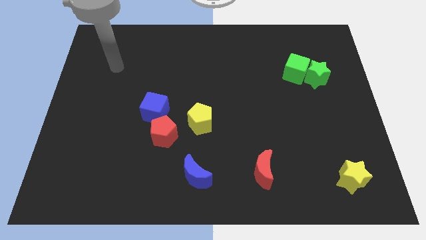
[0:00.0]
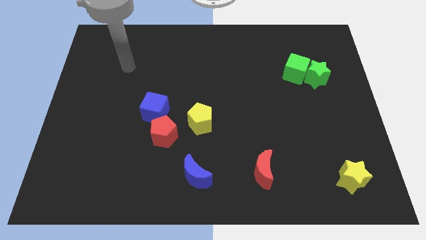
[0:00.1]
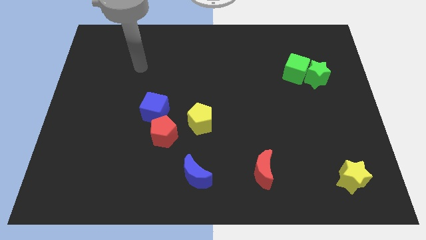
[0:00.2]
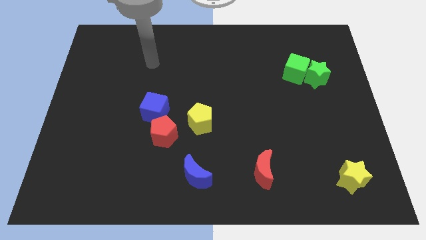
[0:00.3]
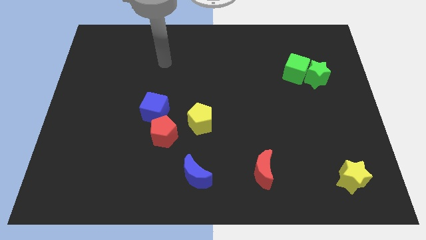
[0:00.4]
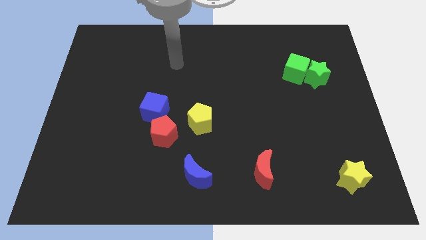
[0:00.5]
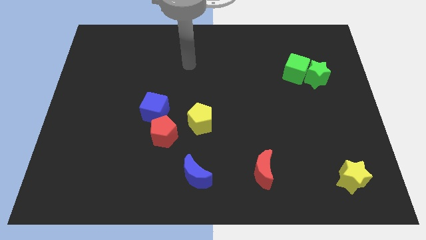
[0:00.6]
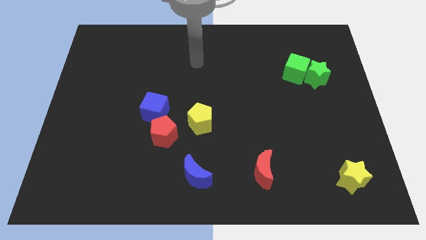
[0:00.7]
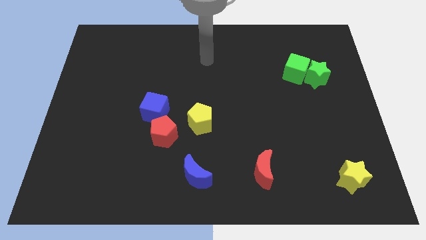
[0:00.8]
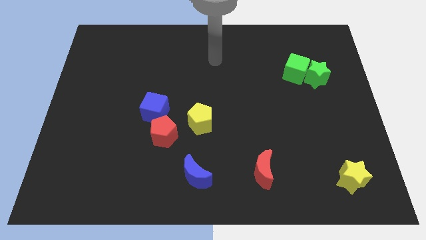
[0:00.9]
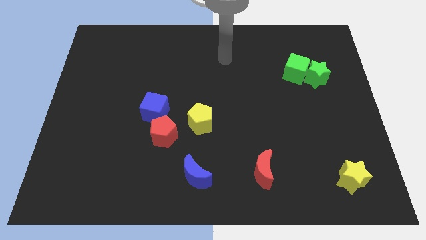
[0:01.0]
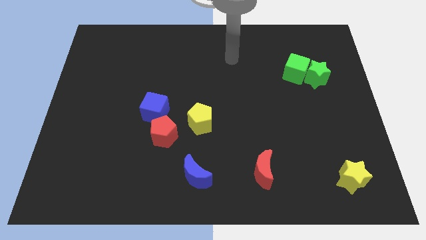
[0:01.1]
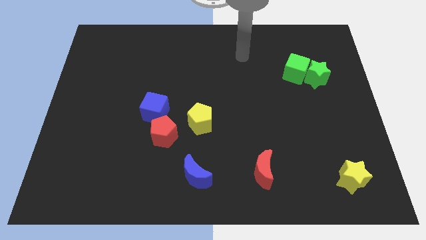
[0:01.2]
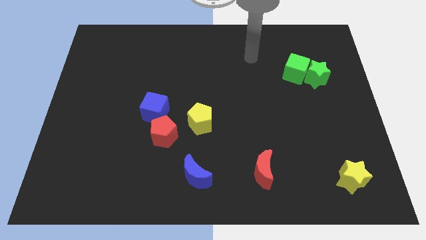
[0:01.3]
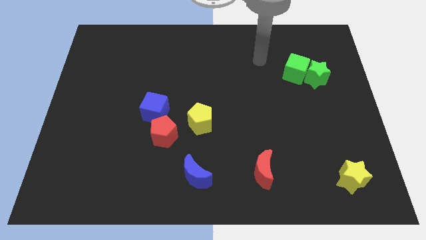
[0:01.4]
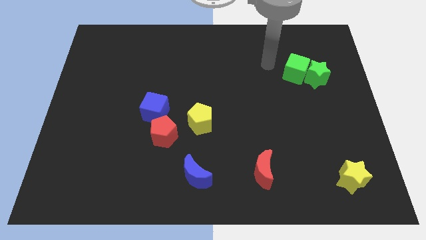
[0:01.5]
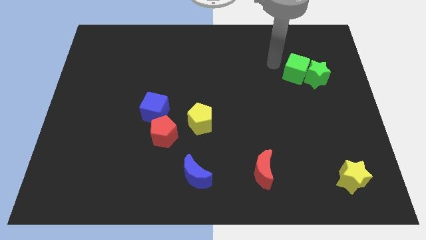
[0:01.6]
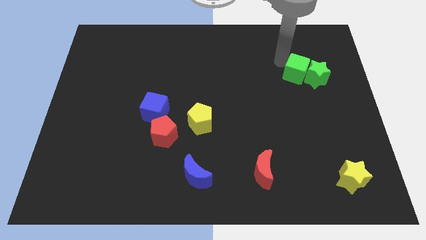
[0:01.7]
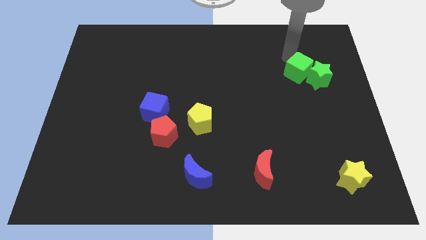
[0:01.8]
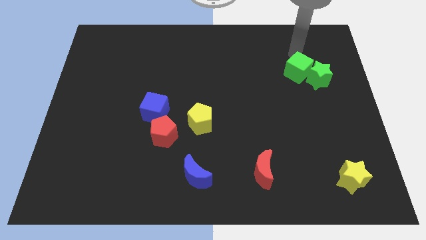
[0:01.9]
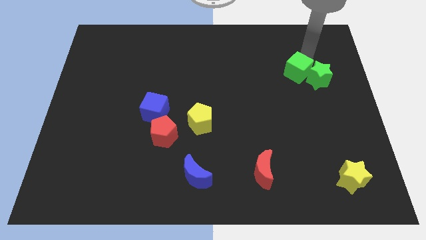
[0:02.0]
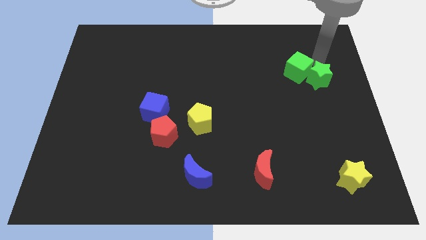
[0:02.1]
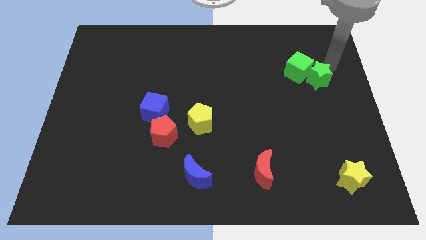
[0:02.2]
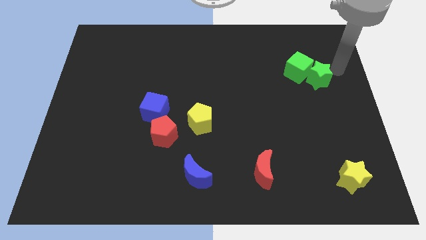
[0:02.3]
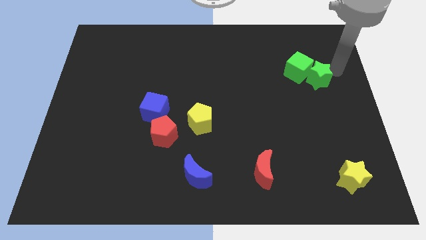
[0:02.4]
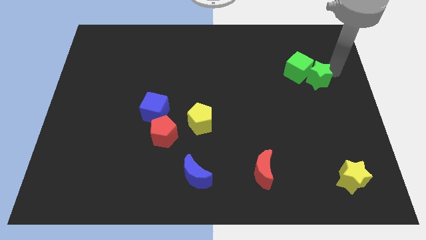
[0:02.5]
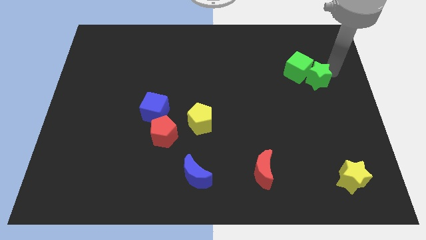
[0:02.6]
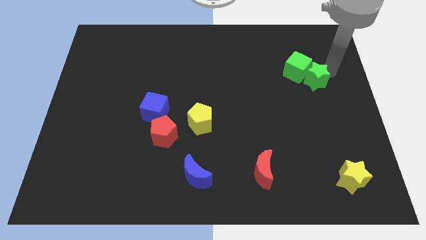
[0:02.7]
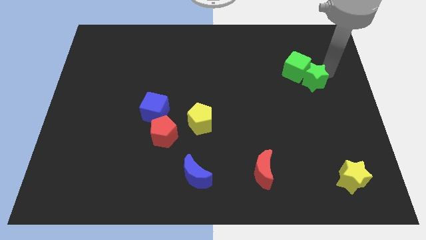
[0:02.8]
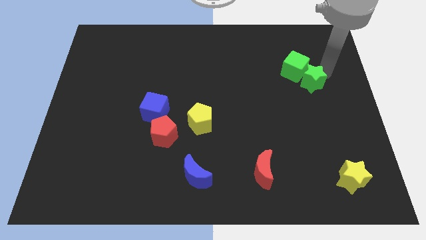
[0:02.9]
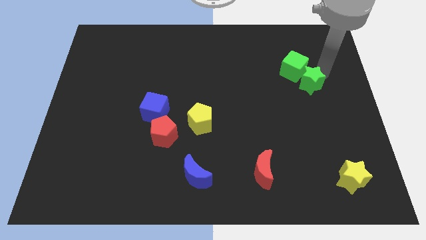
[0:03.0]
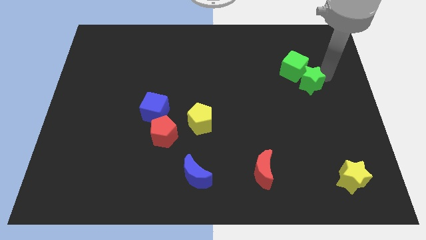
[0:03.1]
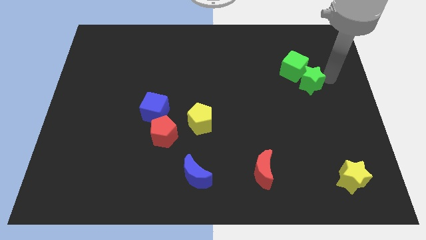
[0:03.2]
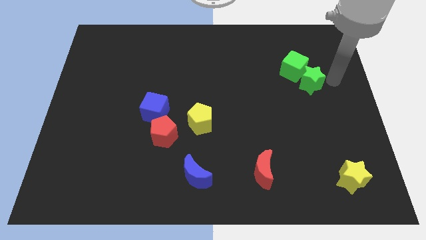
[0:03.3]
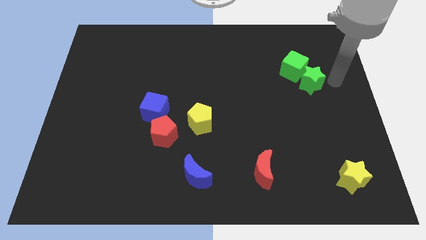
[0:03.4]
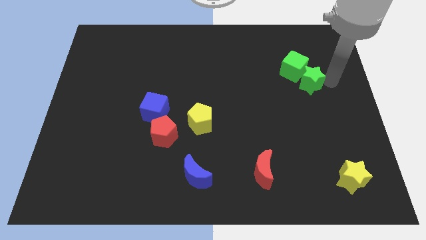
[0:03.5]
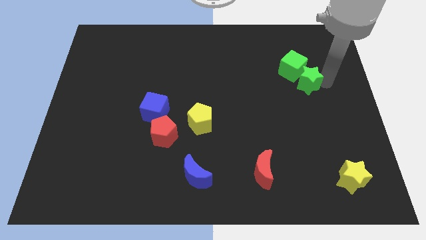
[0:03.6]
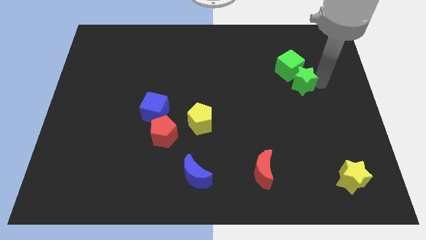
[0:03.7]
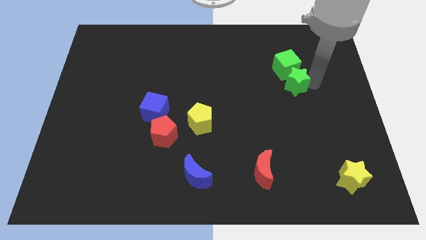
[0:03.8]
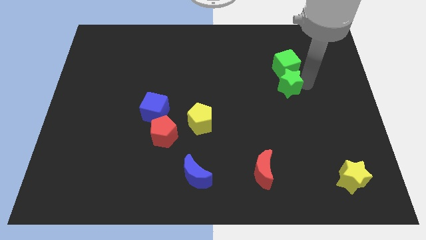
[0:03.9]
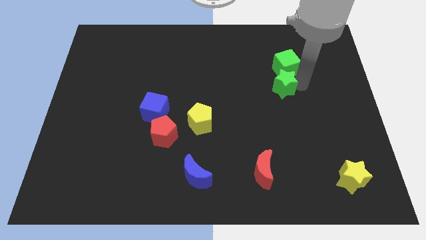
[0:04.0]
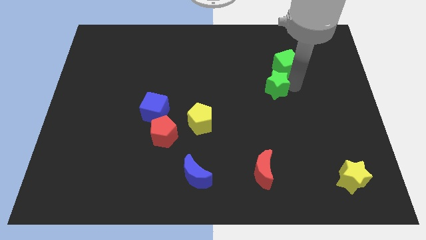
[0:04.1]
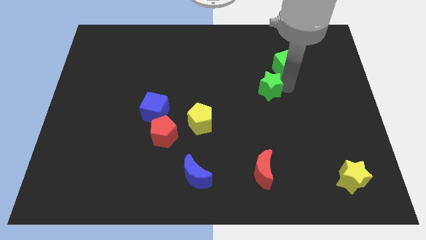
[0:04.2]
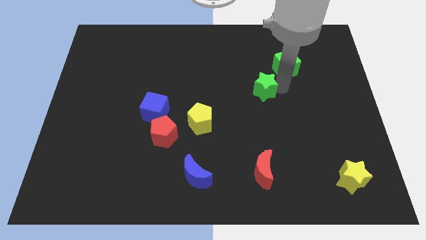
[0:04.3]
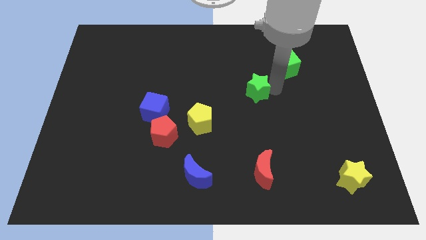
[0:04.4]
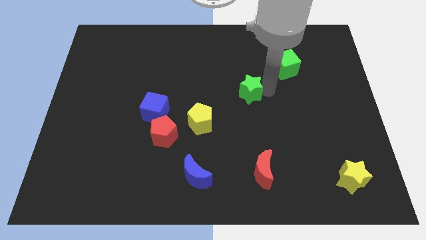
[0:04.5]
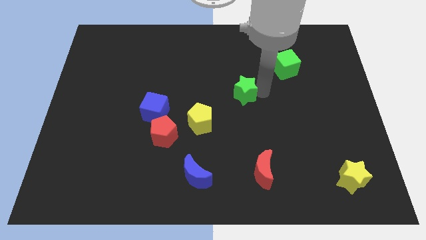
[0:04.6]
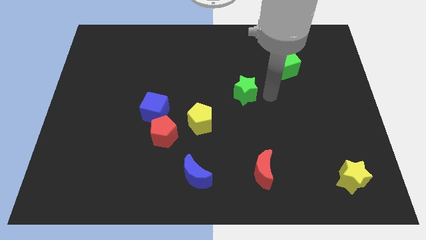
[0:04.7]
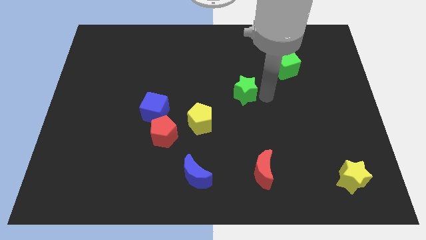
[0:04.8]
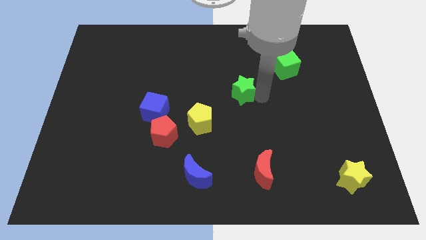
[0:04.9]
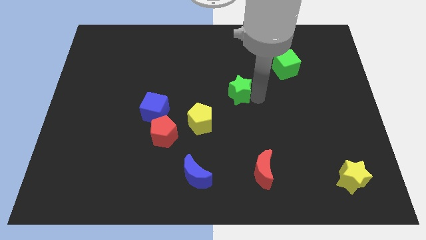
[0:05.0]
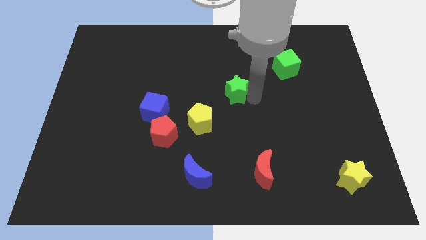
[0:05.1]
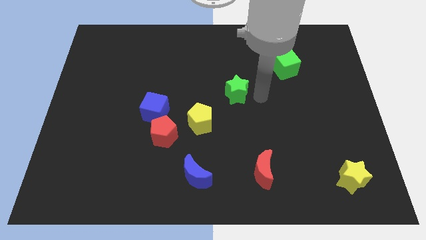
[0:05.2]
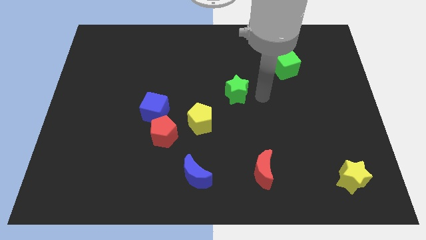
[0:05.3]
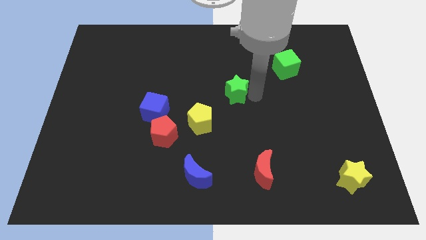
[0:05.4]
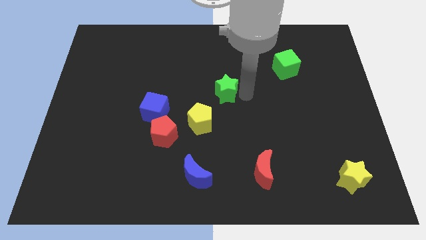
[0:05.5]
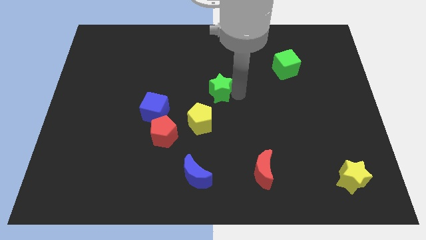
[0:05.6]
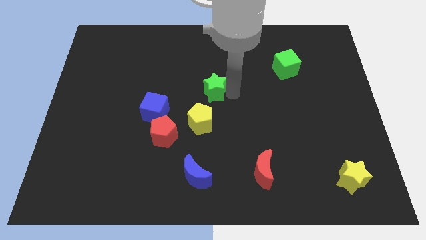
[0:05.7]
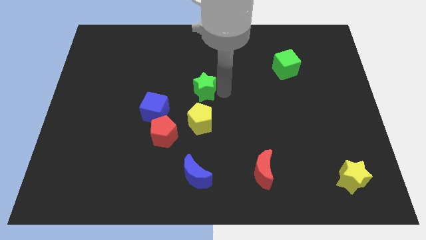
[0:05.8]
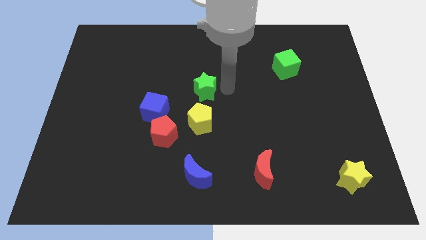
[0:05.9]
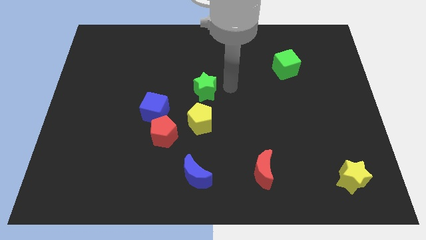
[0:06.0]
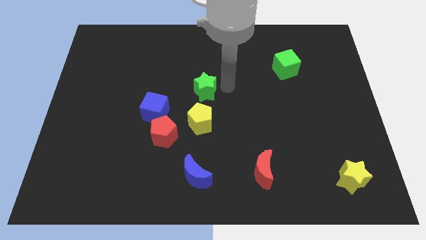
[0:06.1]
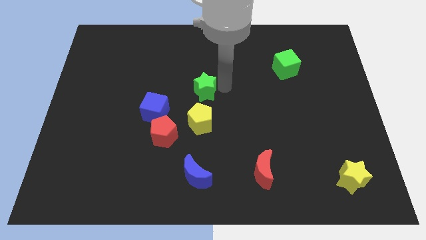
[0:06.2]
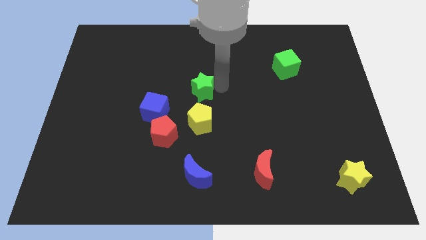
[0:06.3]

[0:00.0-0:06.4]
move the green star to the top right side of the blue cube

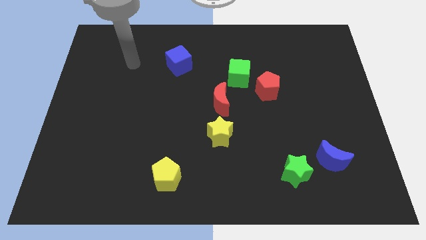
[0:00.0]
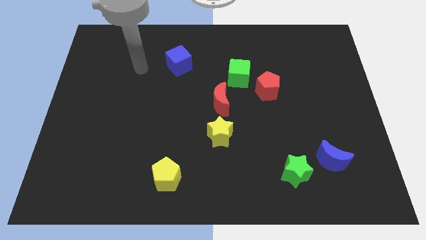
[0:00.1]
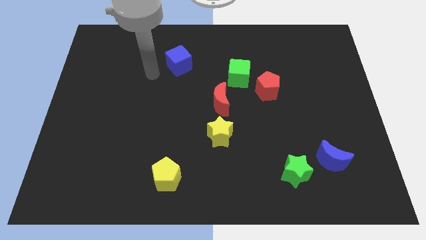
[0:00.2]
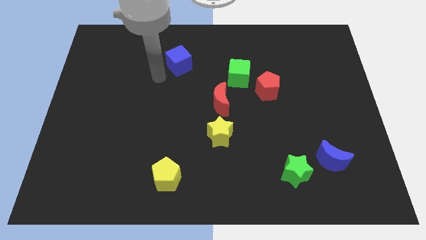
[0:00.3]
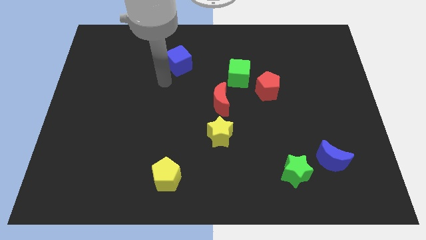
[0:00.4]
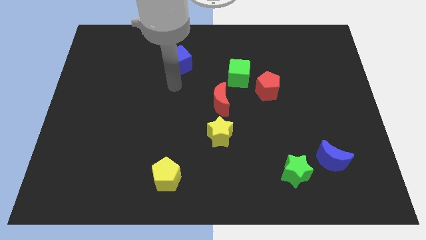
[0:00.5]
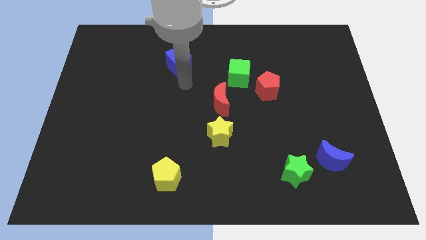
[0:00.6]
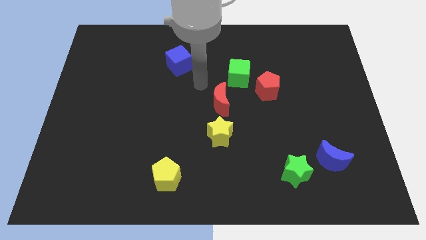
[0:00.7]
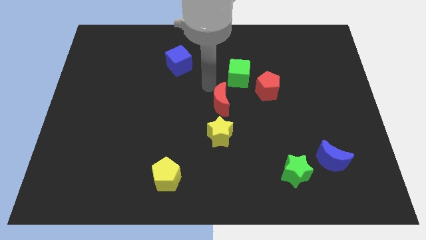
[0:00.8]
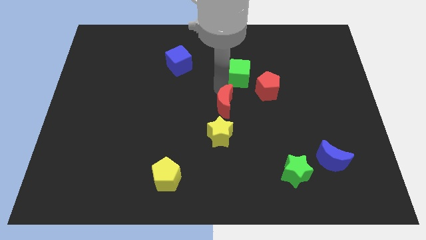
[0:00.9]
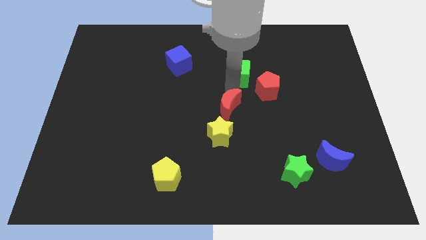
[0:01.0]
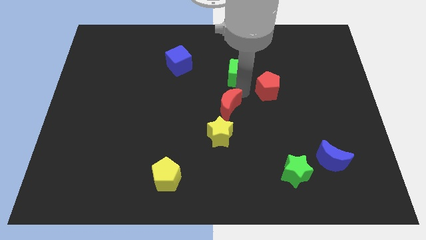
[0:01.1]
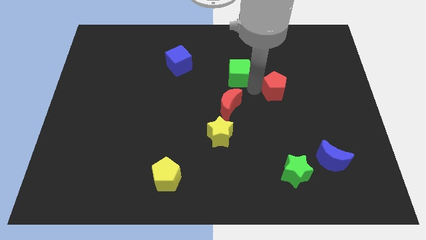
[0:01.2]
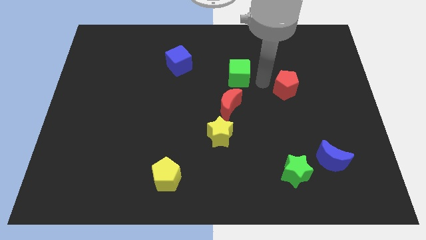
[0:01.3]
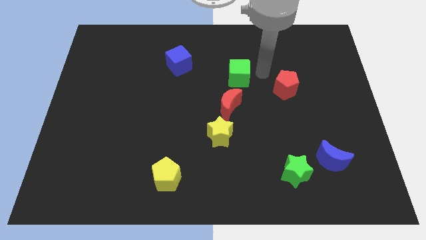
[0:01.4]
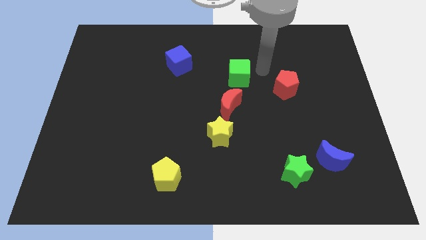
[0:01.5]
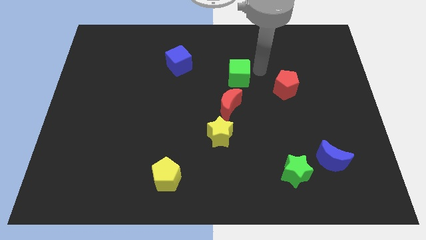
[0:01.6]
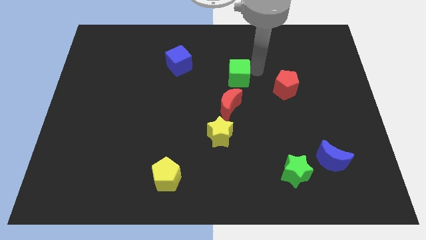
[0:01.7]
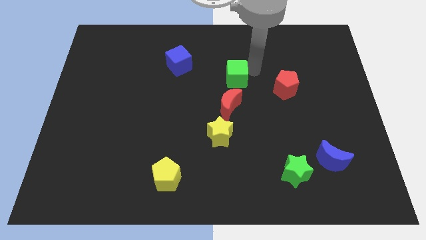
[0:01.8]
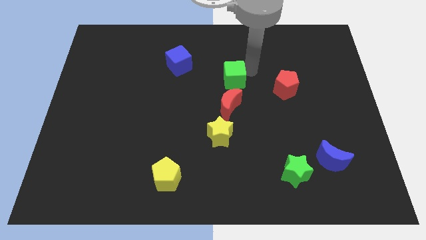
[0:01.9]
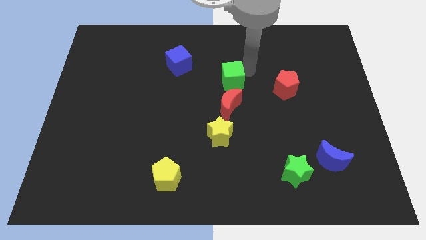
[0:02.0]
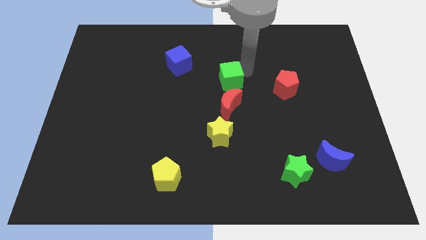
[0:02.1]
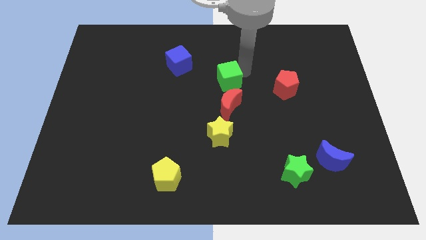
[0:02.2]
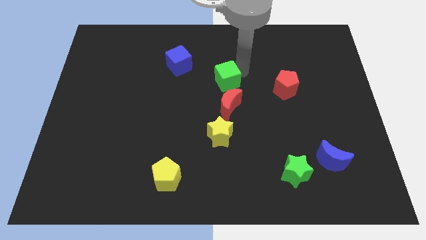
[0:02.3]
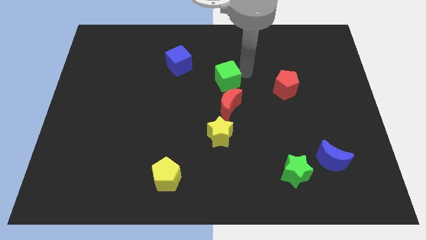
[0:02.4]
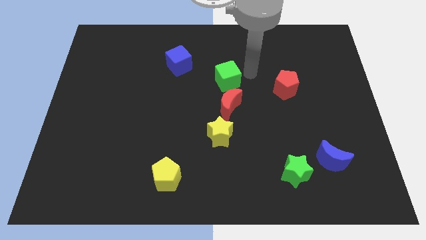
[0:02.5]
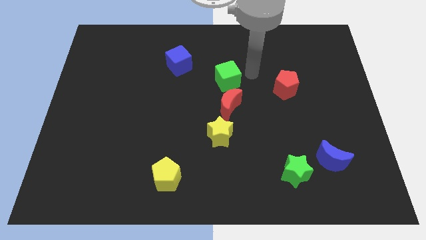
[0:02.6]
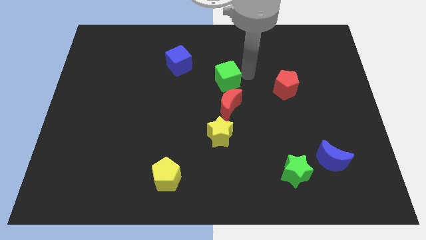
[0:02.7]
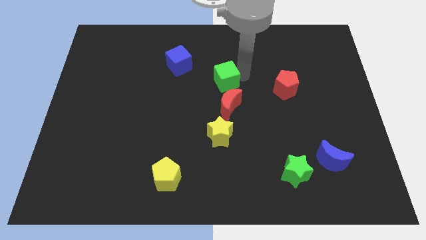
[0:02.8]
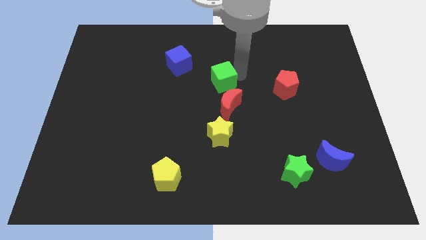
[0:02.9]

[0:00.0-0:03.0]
slide the green cube diagonally up and to the left of the red moon
